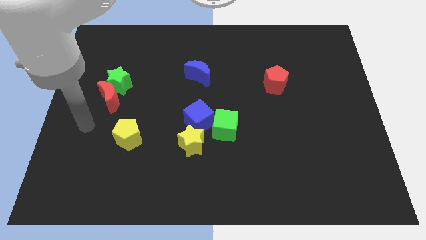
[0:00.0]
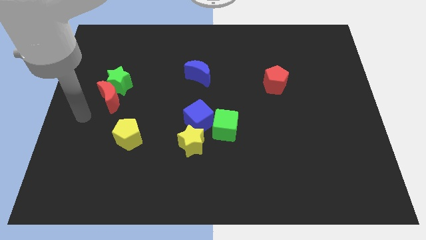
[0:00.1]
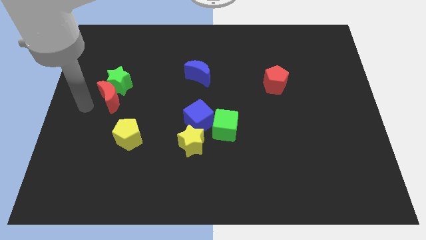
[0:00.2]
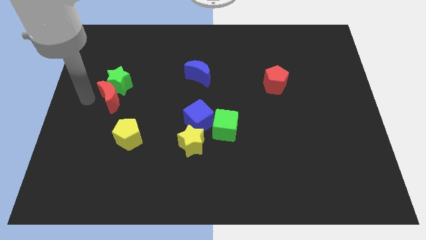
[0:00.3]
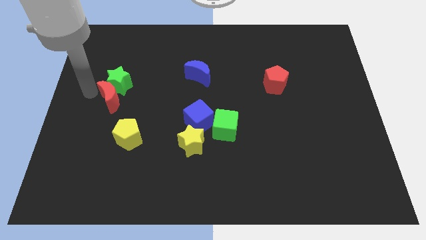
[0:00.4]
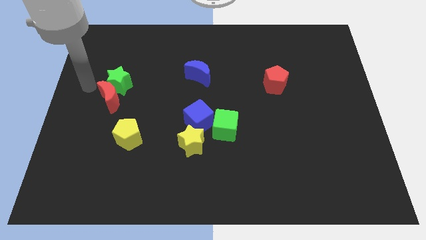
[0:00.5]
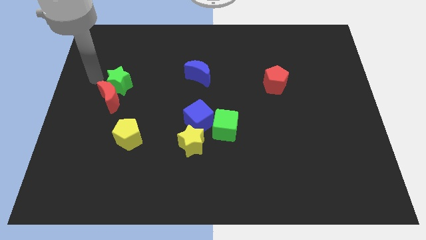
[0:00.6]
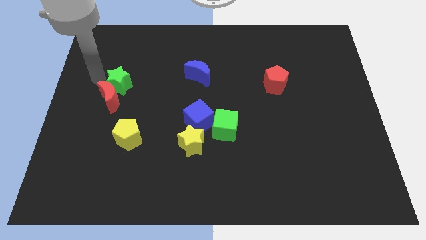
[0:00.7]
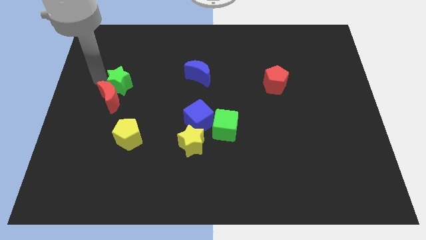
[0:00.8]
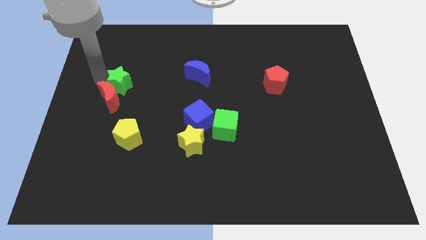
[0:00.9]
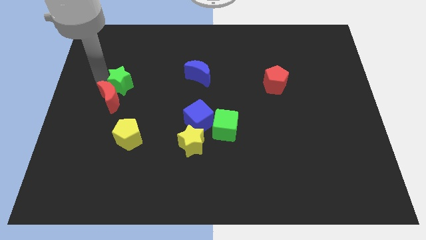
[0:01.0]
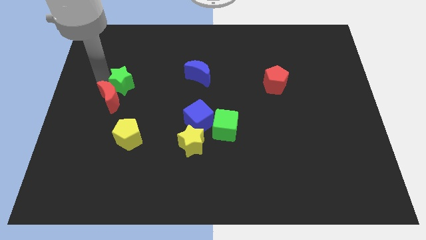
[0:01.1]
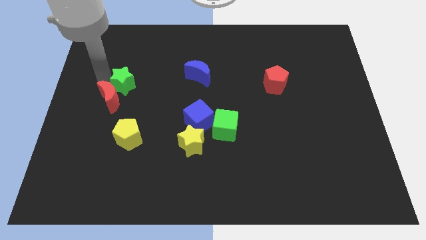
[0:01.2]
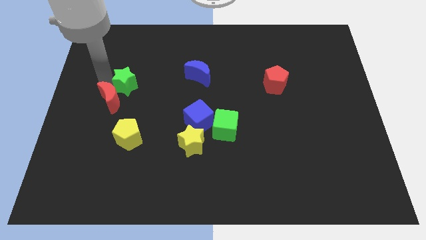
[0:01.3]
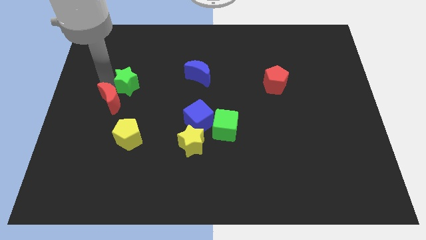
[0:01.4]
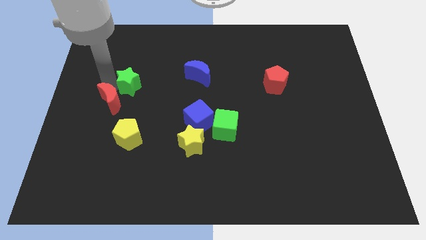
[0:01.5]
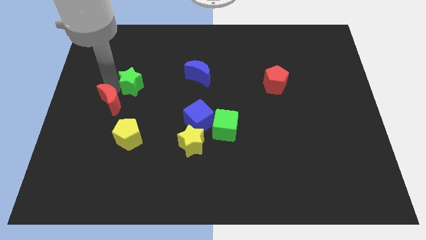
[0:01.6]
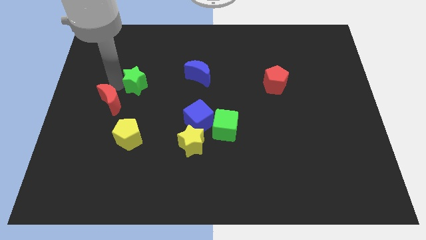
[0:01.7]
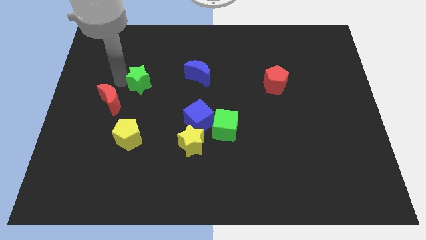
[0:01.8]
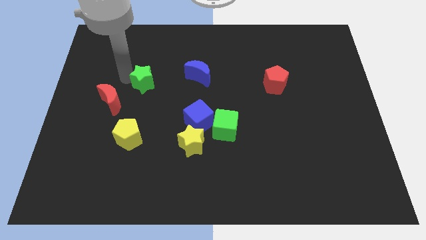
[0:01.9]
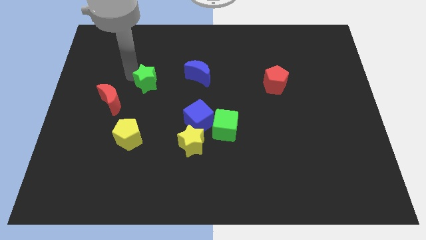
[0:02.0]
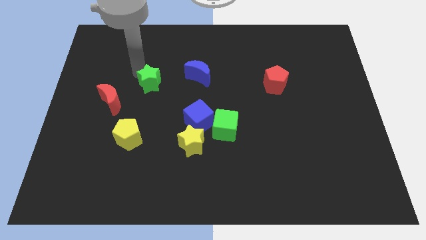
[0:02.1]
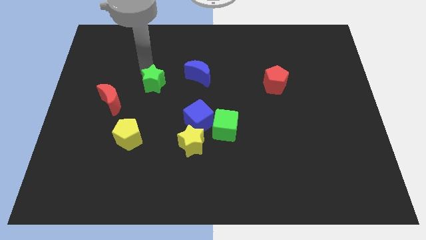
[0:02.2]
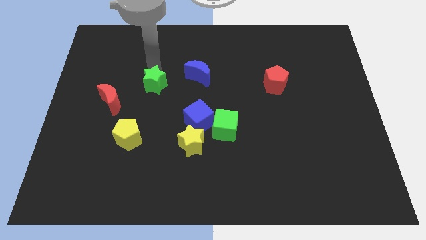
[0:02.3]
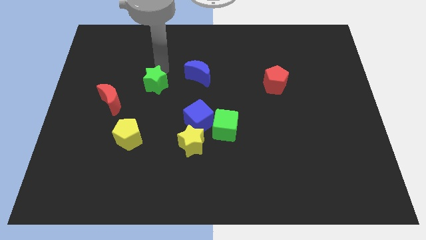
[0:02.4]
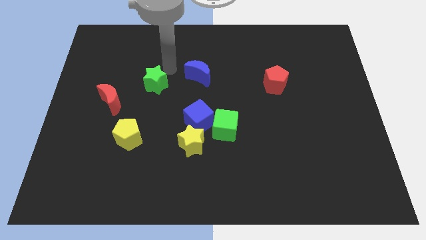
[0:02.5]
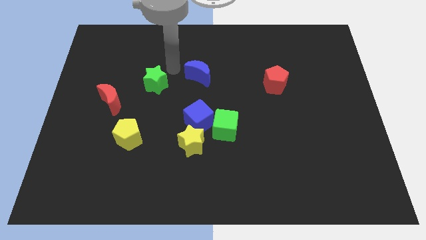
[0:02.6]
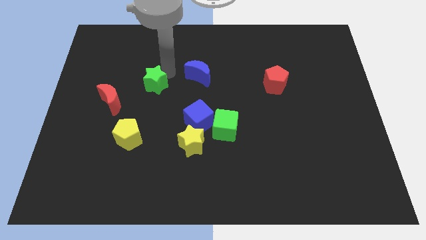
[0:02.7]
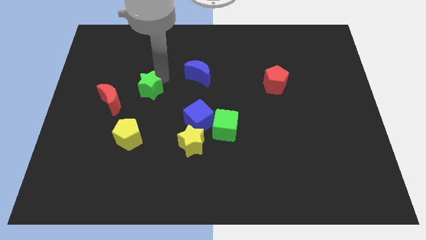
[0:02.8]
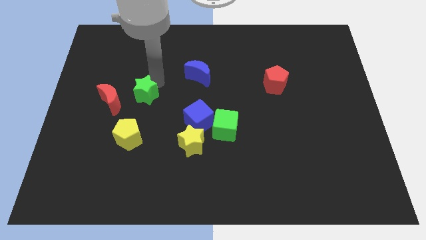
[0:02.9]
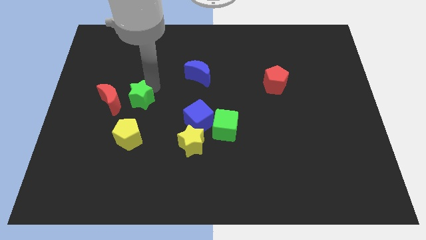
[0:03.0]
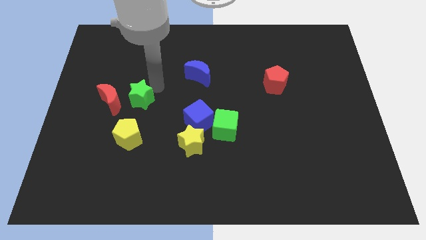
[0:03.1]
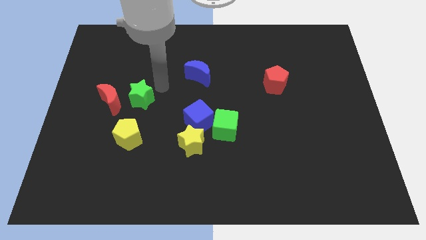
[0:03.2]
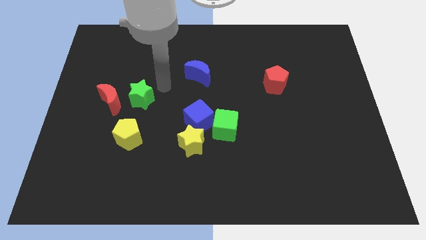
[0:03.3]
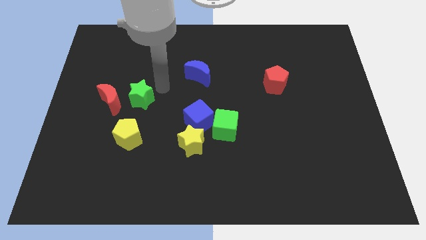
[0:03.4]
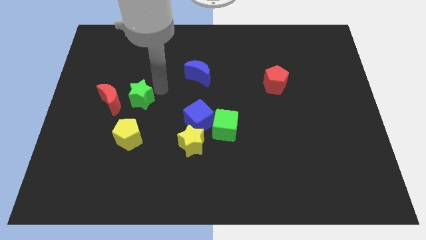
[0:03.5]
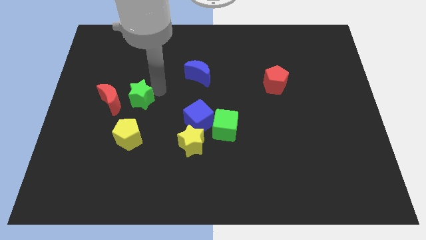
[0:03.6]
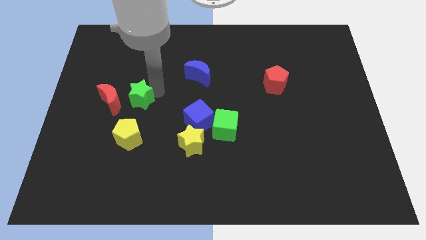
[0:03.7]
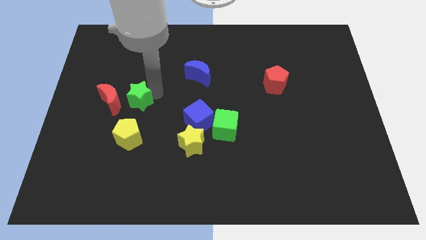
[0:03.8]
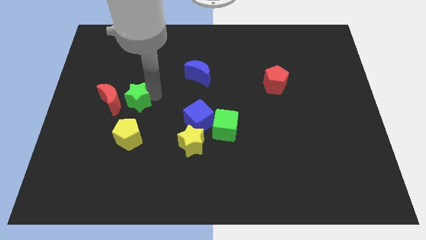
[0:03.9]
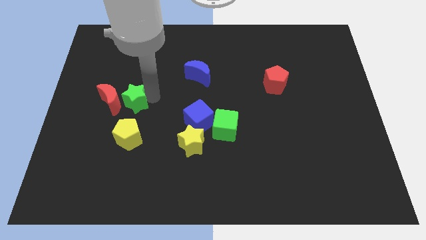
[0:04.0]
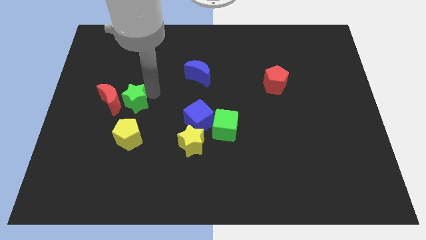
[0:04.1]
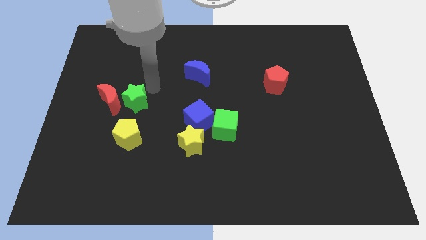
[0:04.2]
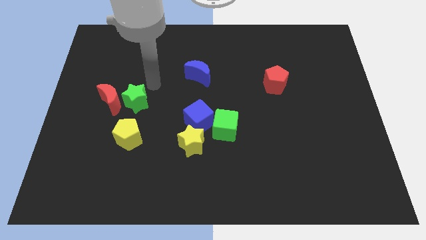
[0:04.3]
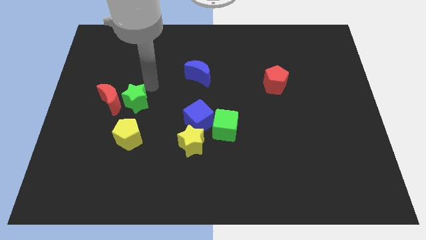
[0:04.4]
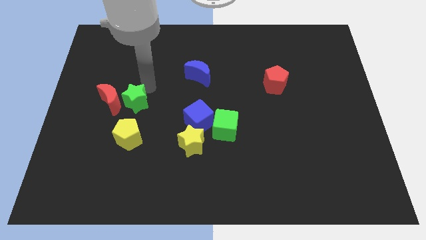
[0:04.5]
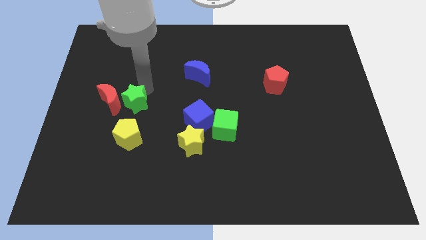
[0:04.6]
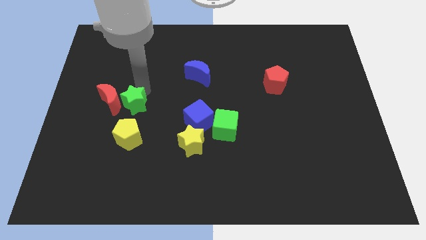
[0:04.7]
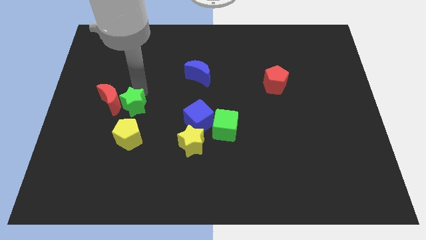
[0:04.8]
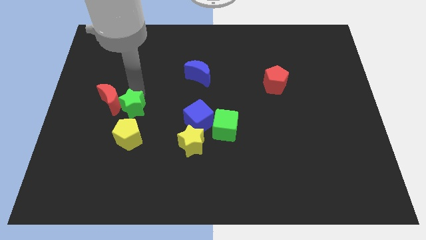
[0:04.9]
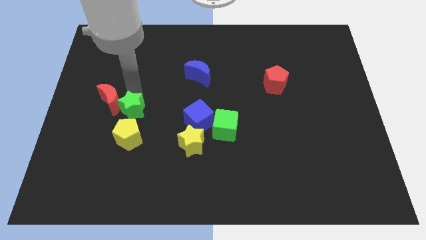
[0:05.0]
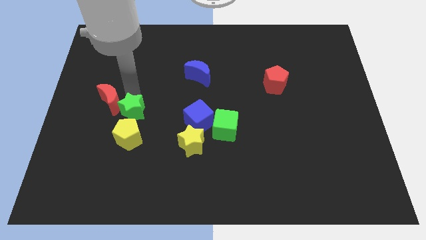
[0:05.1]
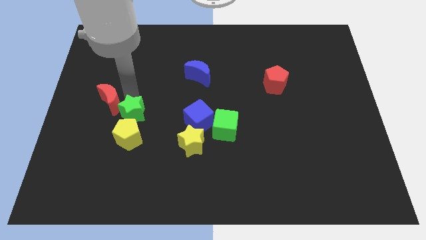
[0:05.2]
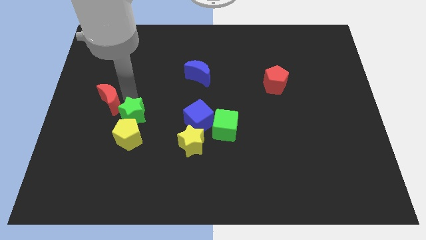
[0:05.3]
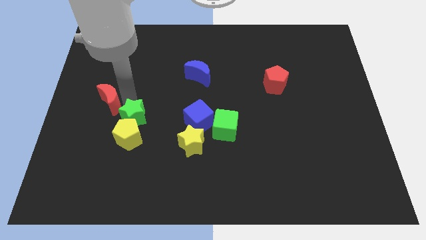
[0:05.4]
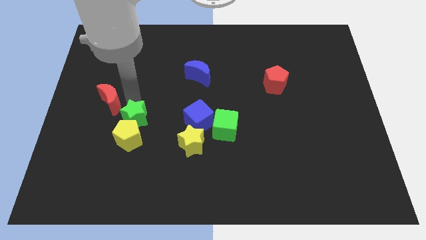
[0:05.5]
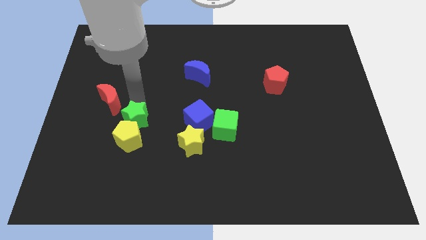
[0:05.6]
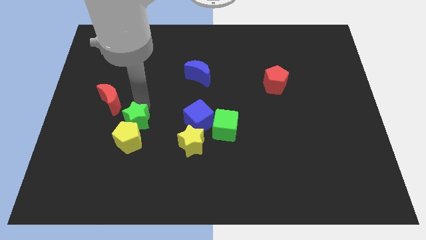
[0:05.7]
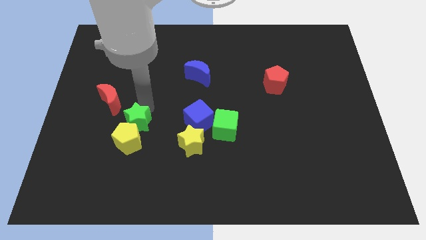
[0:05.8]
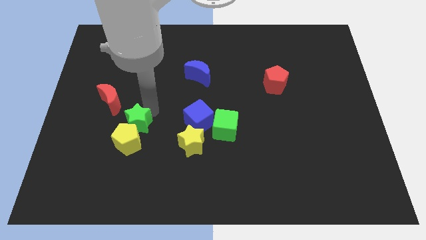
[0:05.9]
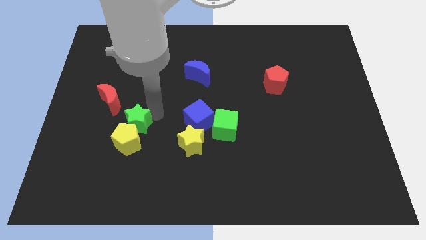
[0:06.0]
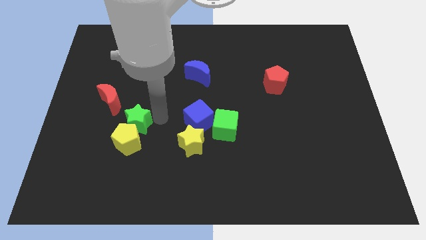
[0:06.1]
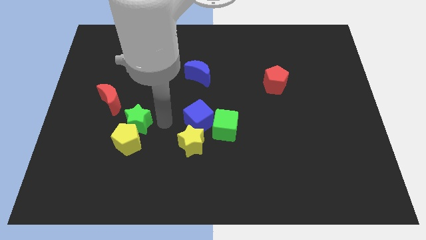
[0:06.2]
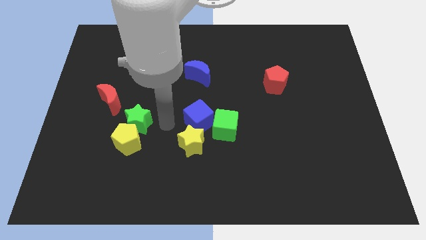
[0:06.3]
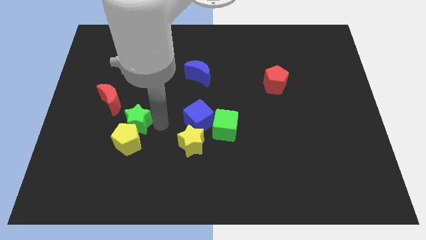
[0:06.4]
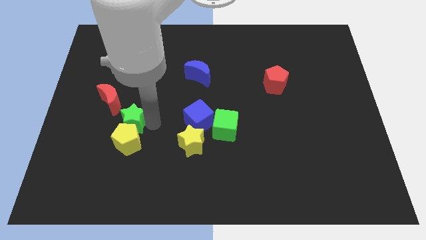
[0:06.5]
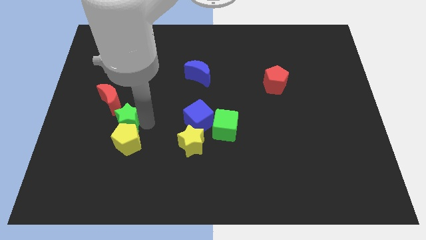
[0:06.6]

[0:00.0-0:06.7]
push the green star to the bottom of the red moon

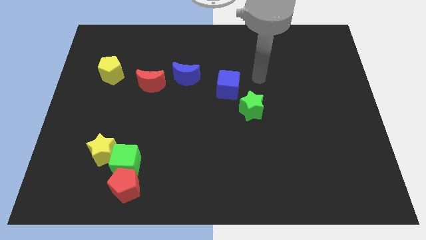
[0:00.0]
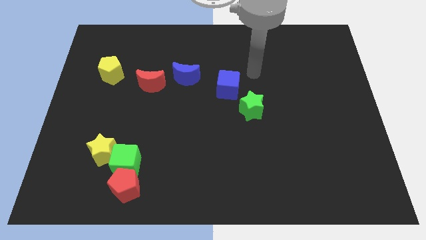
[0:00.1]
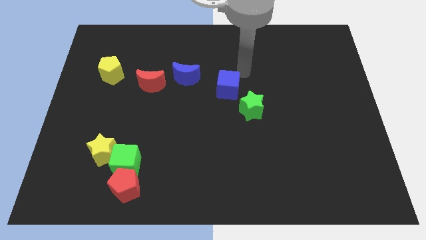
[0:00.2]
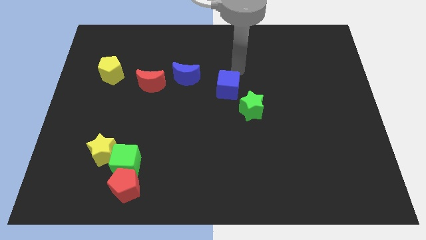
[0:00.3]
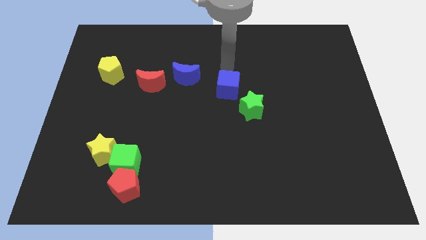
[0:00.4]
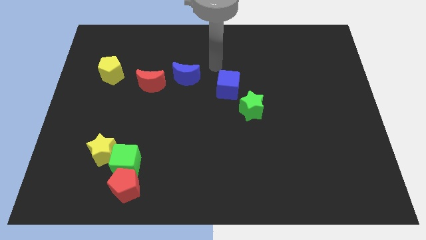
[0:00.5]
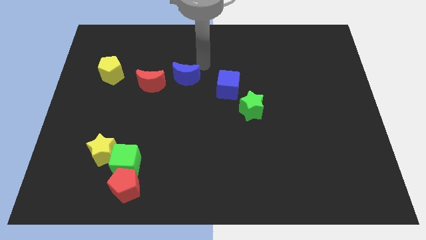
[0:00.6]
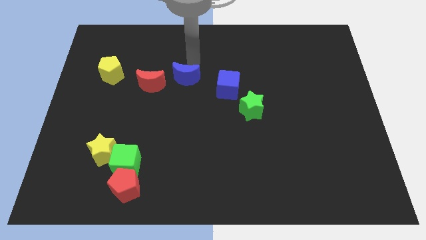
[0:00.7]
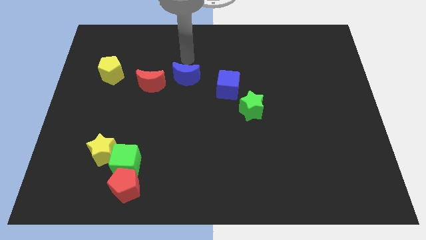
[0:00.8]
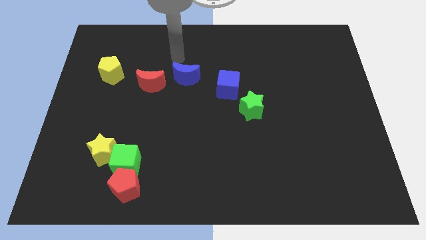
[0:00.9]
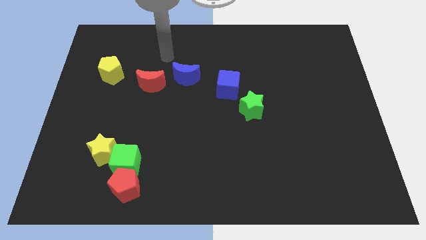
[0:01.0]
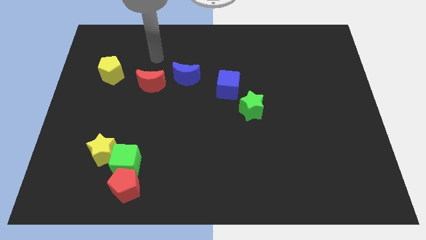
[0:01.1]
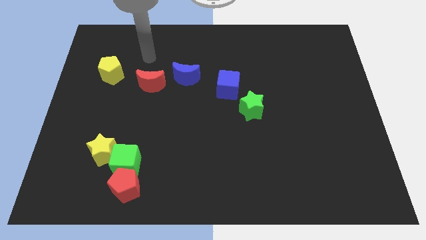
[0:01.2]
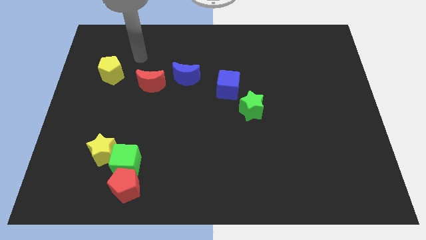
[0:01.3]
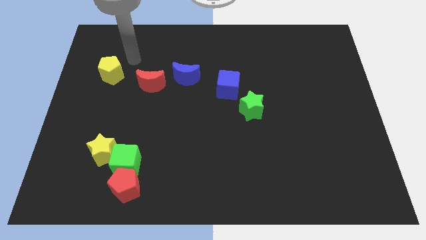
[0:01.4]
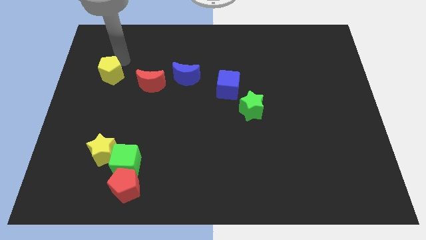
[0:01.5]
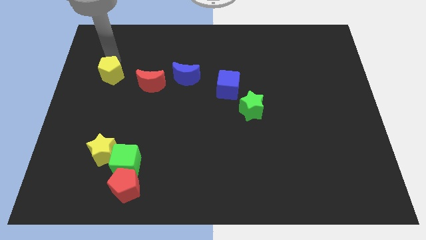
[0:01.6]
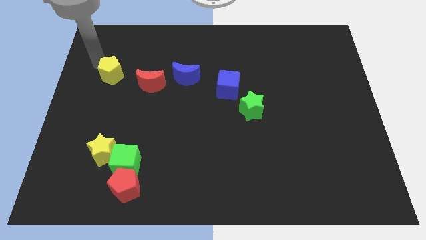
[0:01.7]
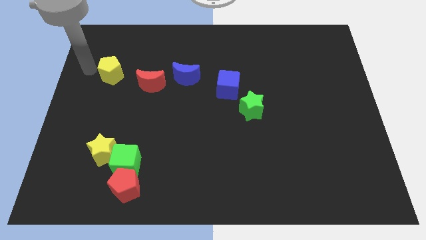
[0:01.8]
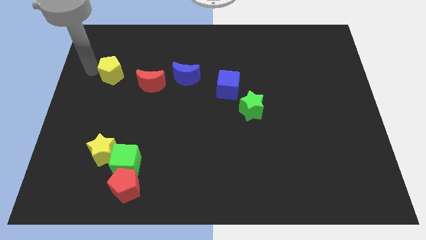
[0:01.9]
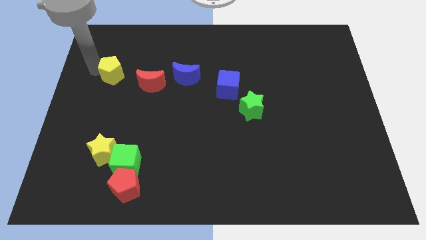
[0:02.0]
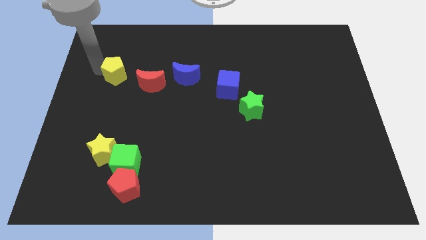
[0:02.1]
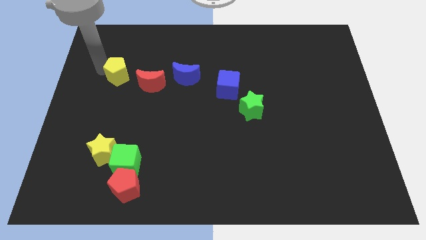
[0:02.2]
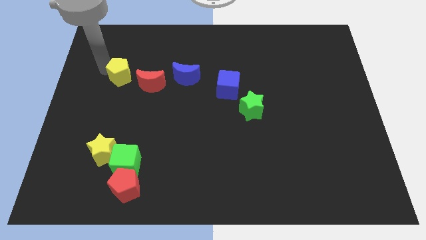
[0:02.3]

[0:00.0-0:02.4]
move the yellow pentagon to the left side of the blue moon
